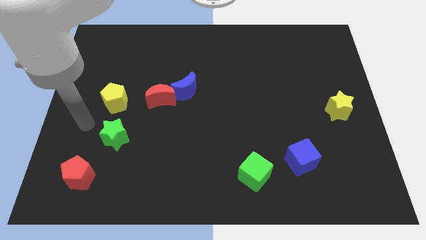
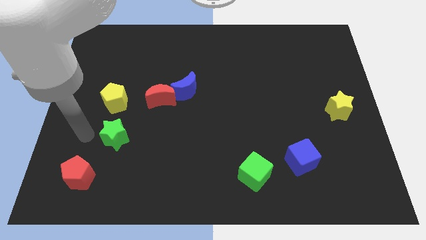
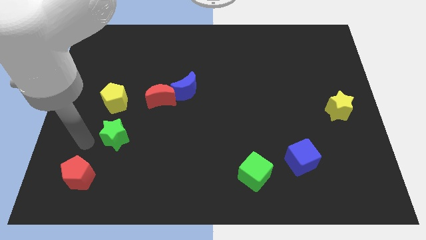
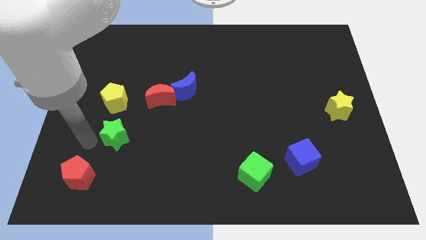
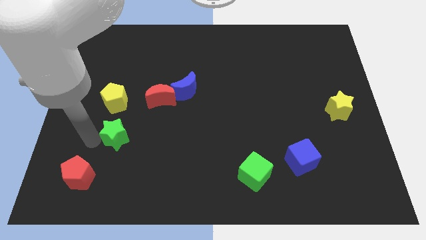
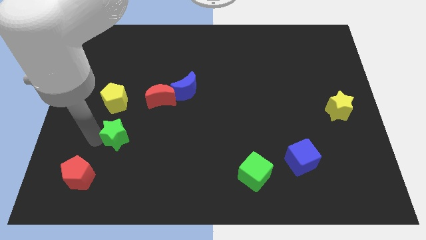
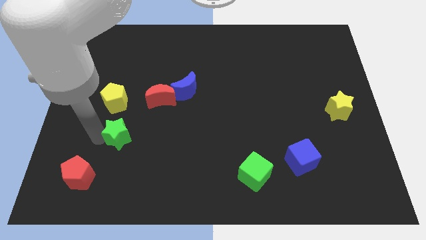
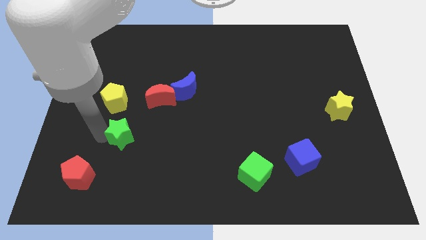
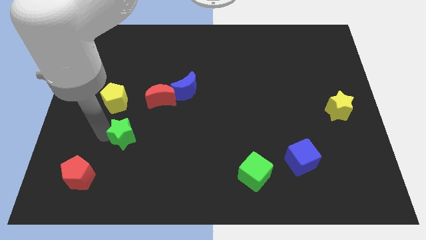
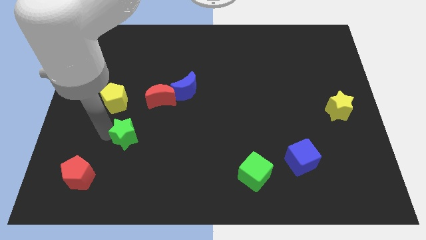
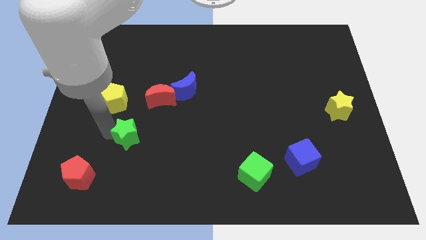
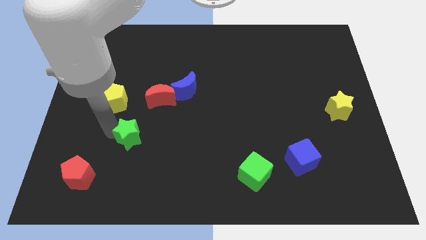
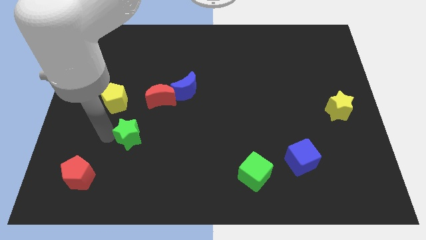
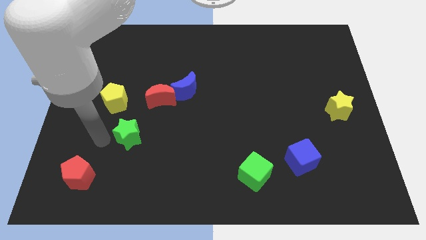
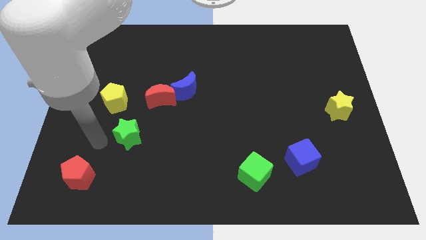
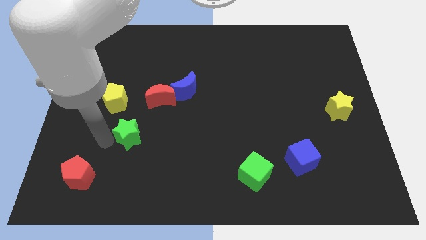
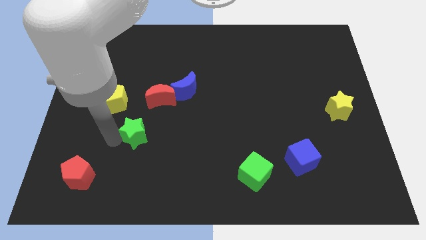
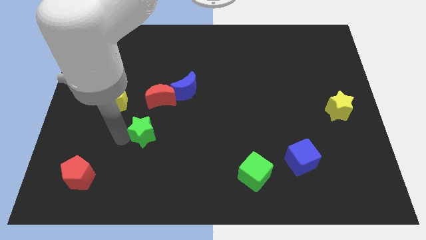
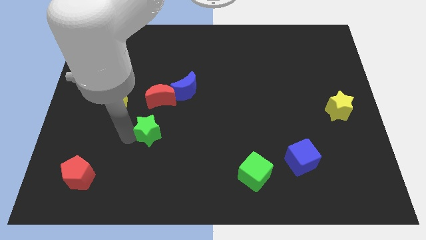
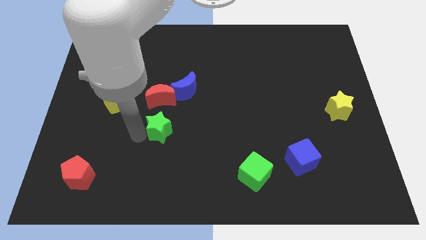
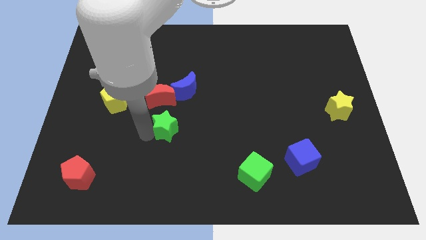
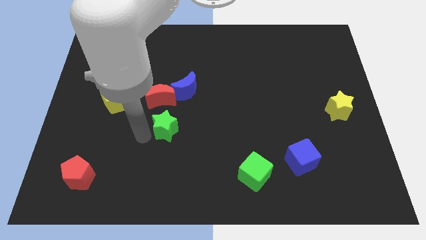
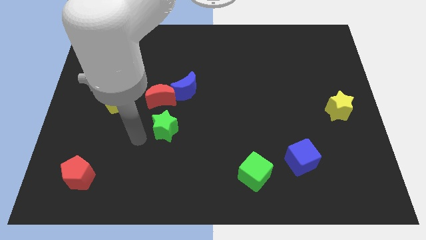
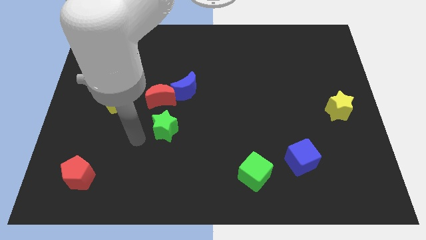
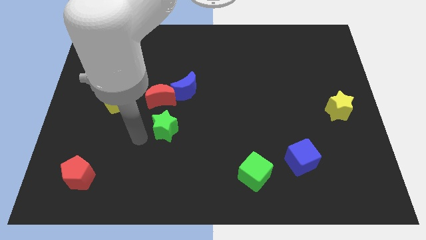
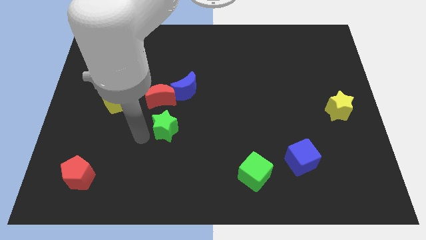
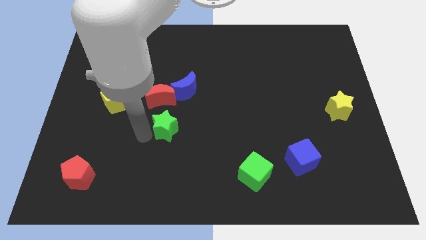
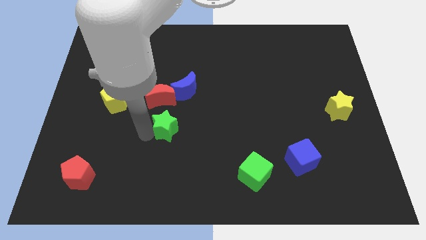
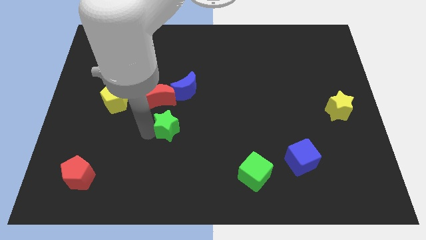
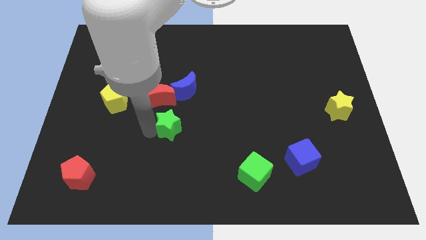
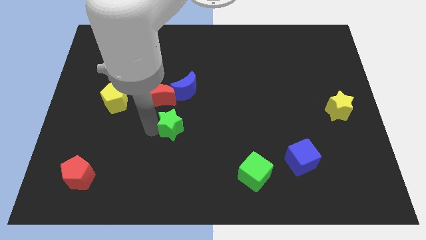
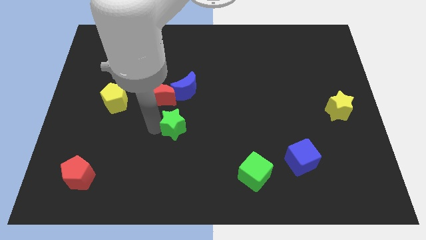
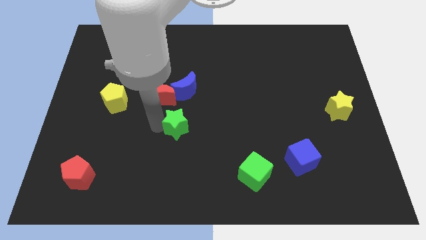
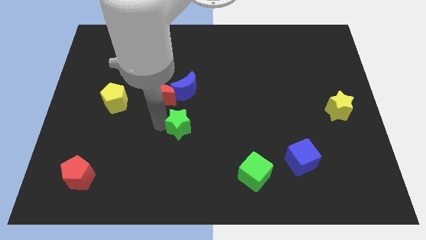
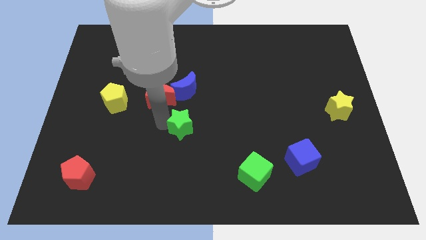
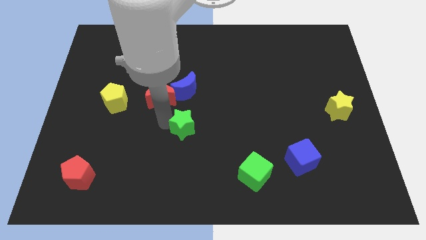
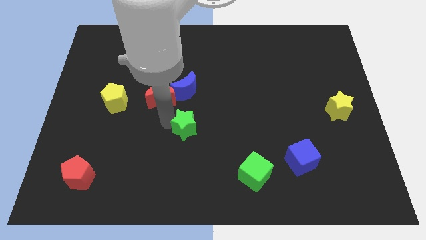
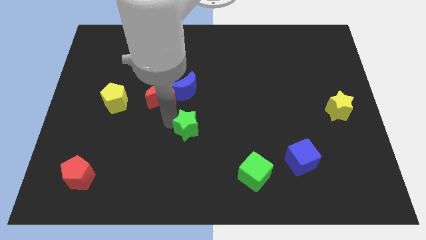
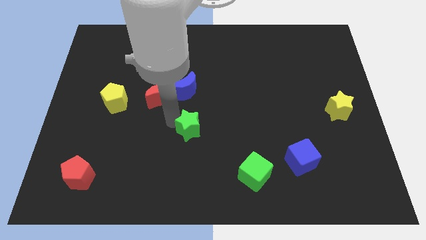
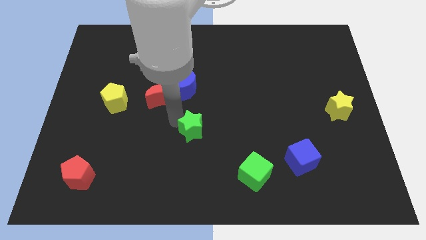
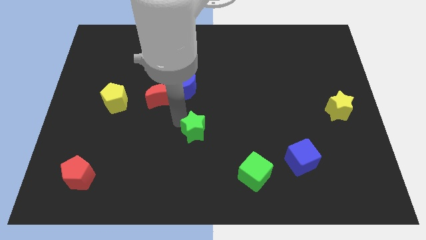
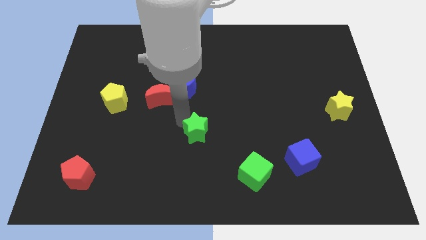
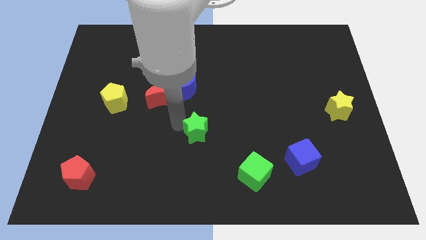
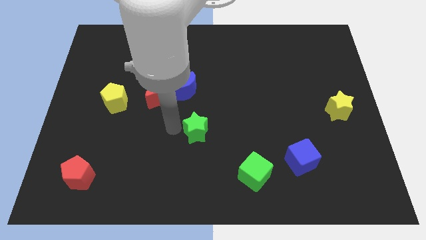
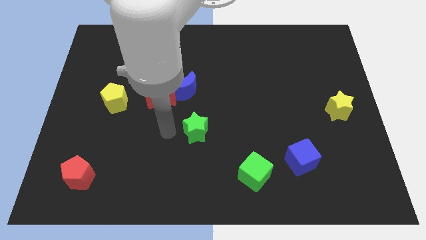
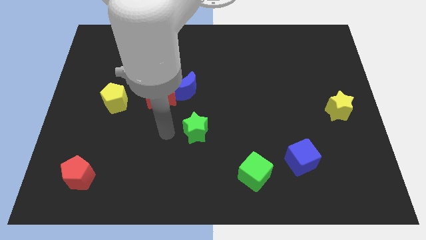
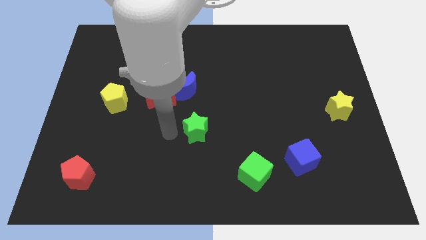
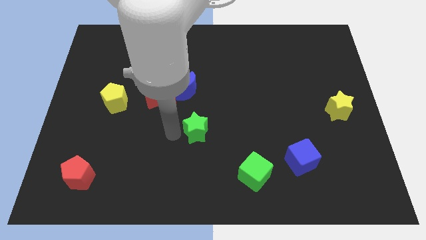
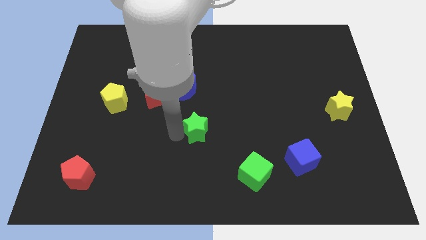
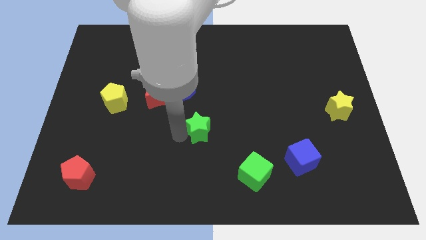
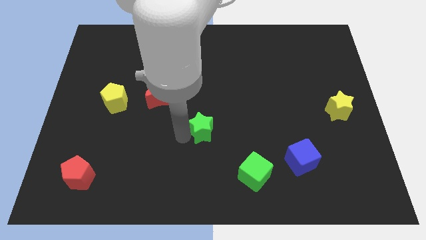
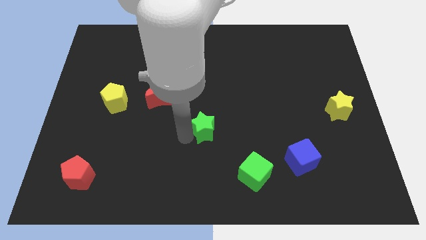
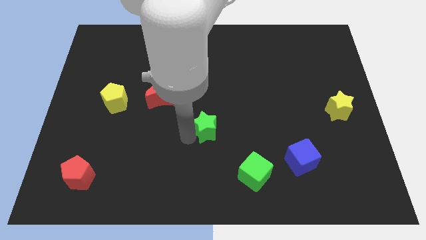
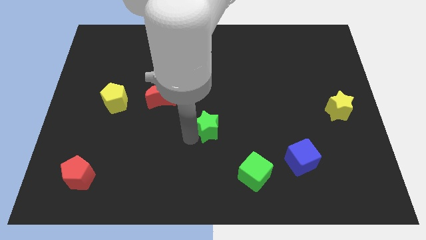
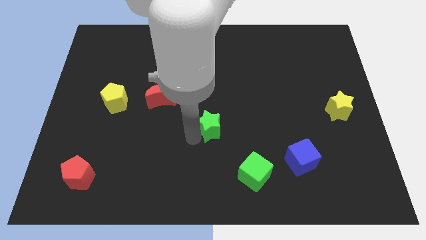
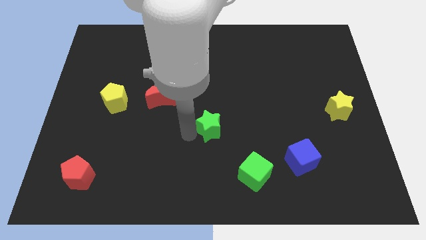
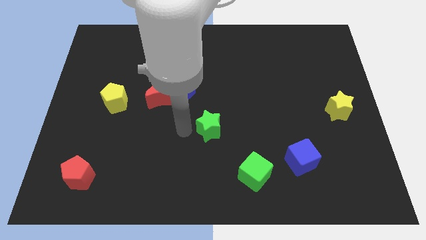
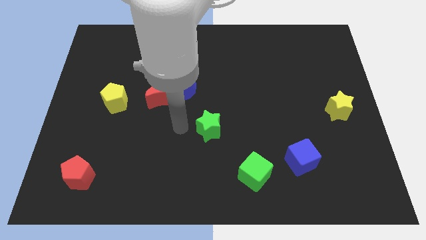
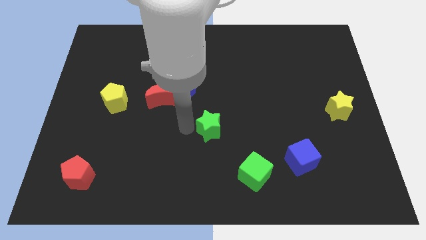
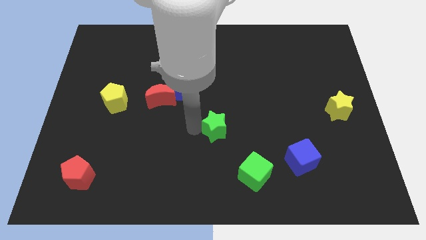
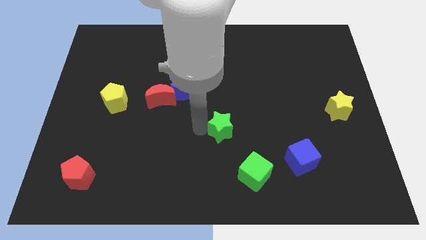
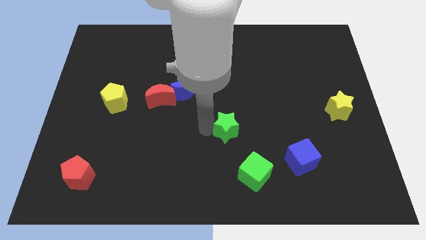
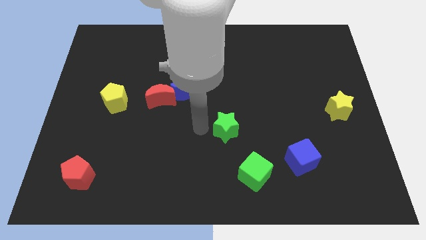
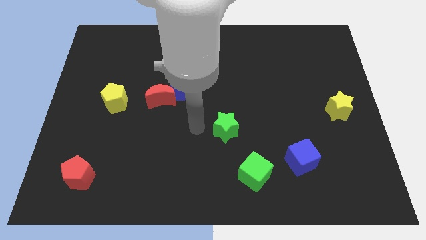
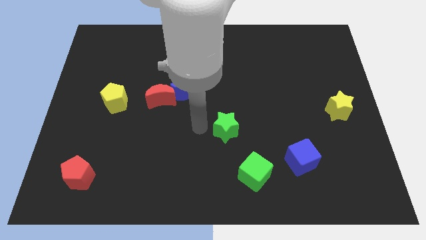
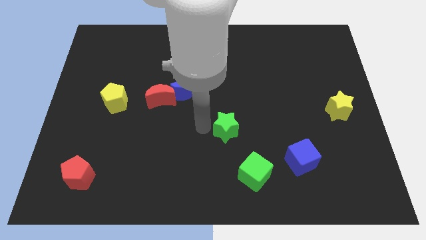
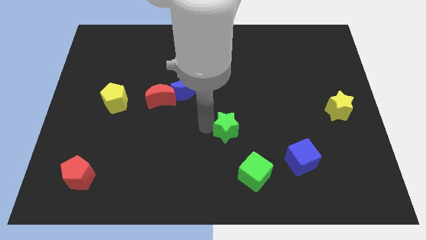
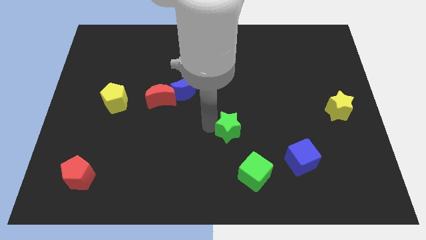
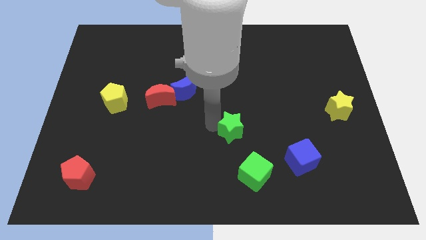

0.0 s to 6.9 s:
put the green star to the top side of the green cube

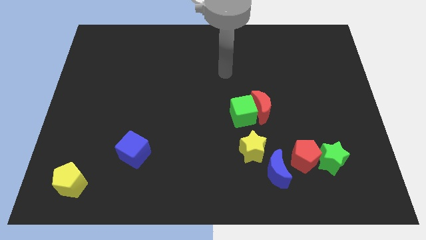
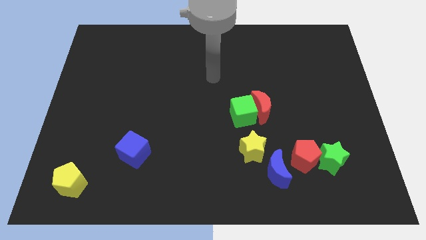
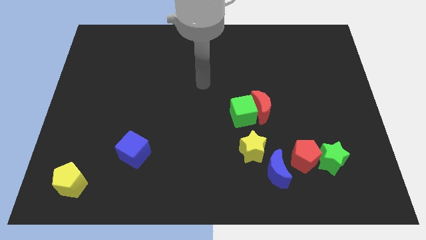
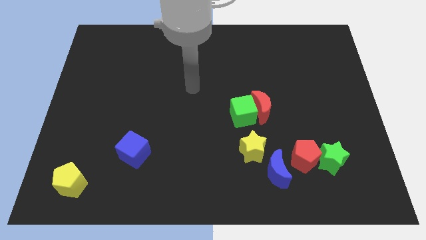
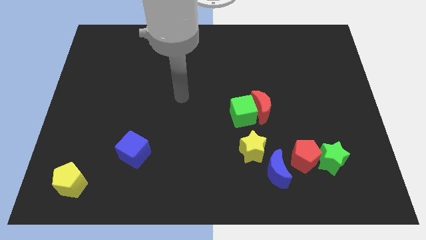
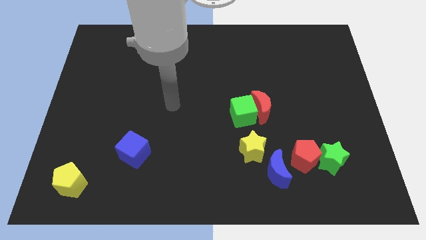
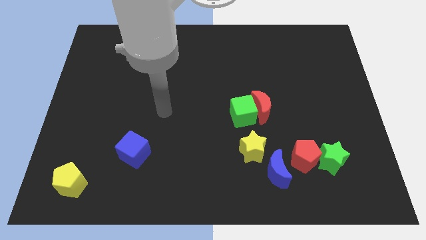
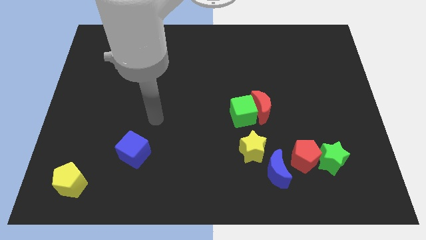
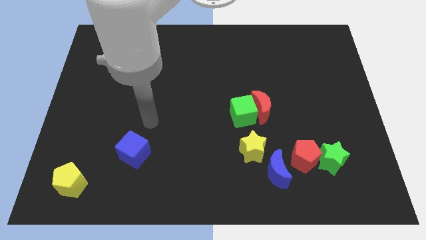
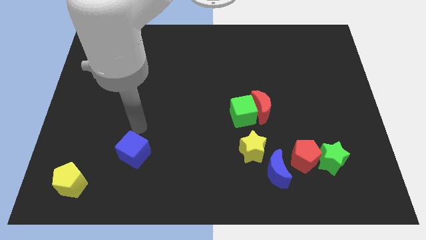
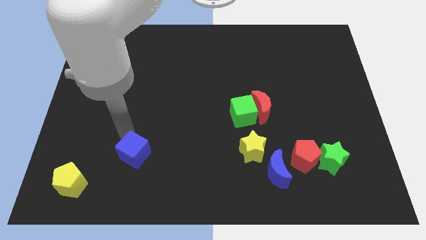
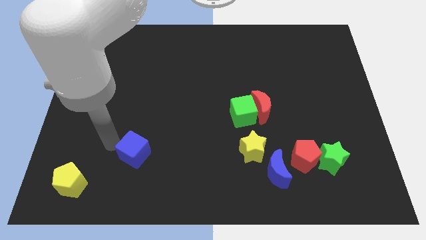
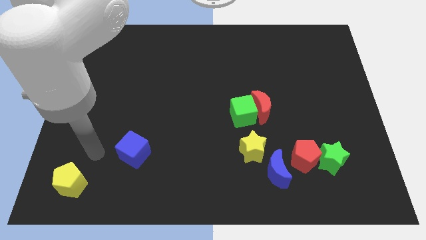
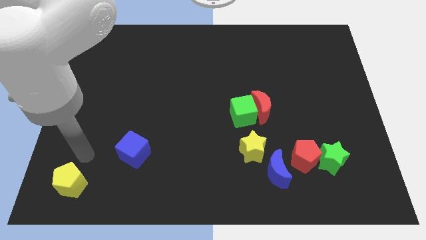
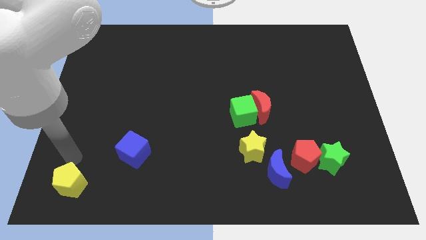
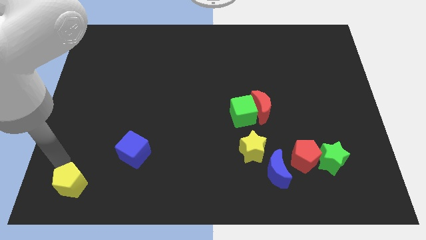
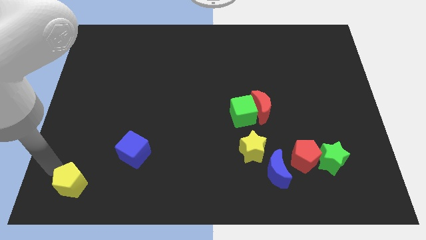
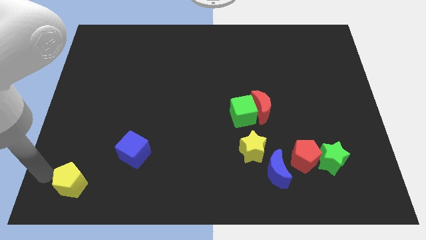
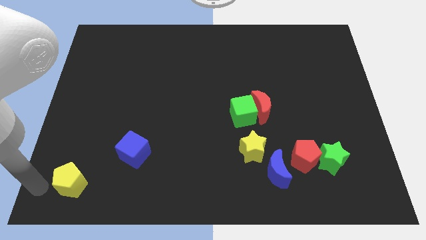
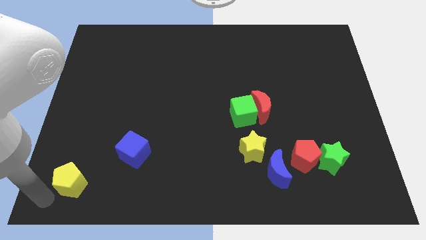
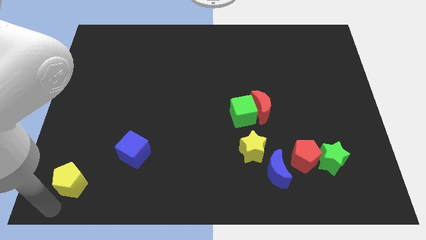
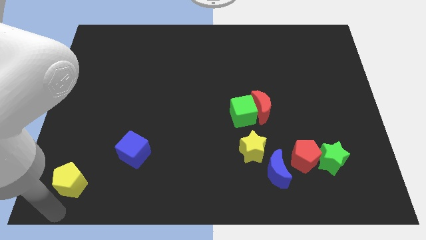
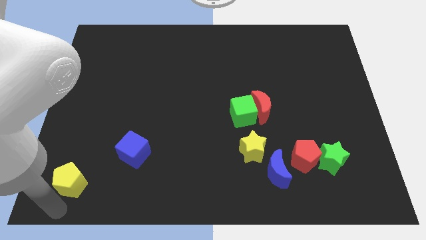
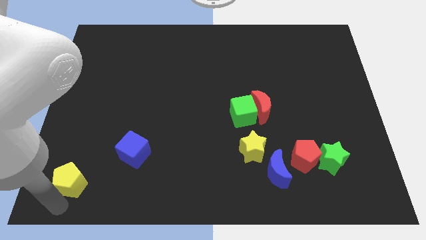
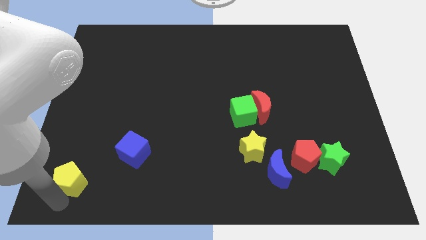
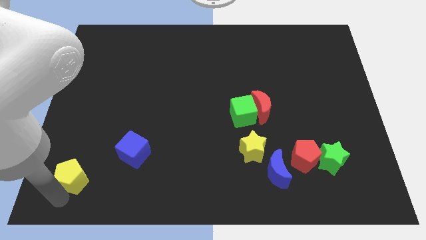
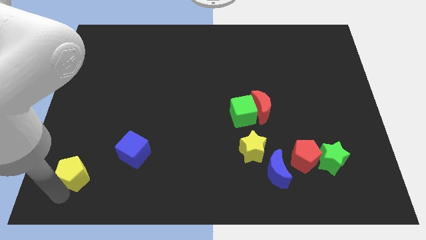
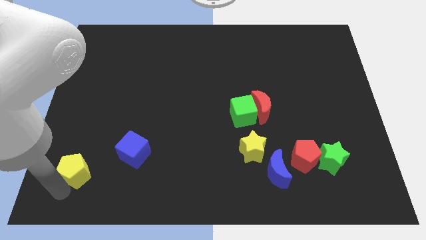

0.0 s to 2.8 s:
push the yellow pentagon to the left of the blue cube
